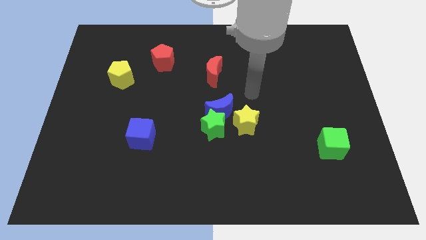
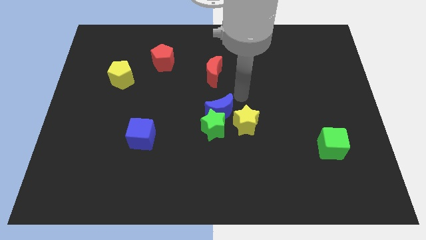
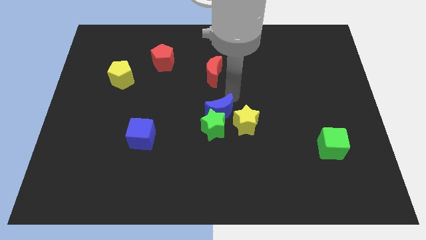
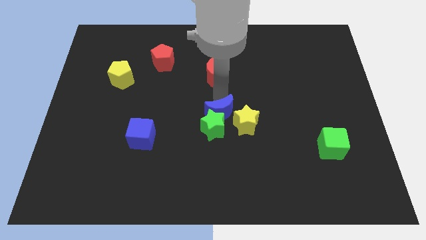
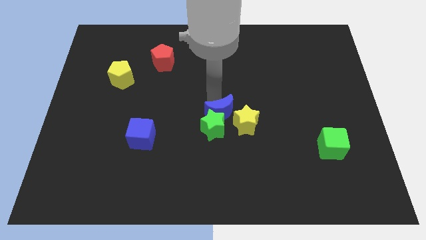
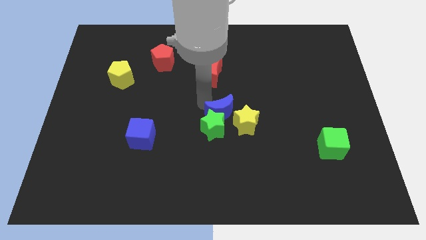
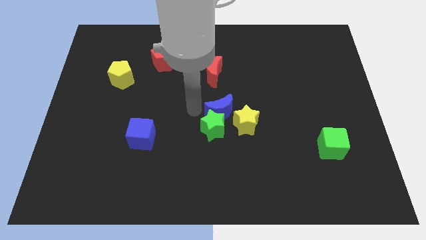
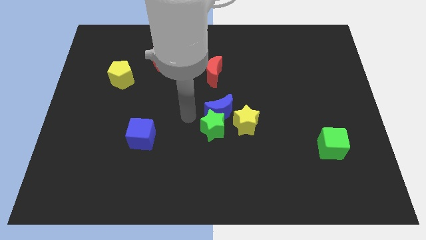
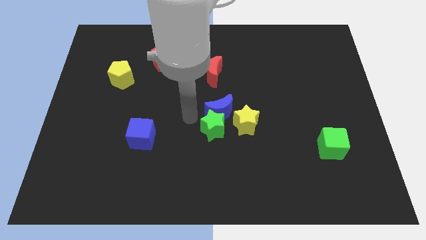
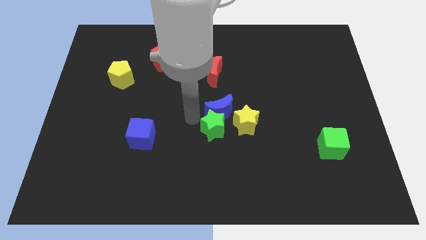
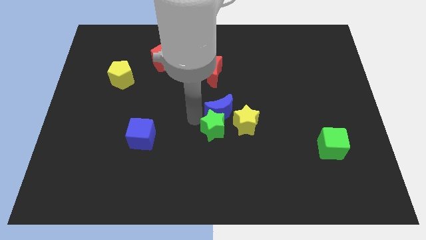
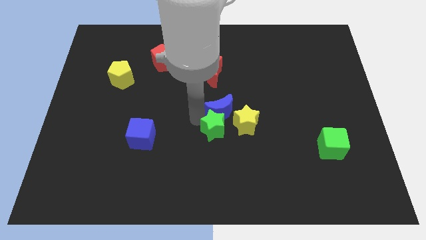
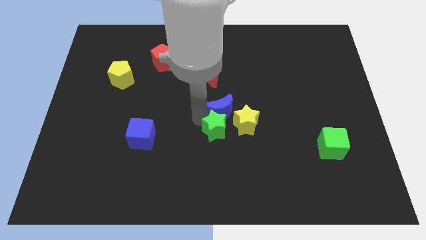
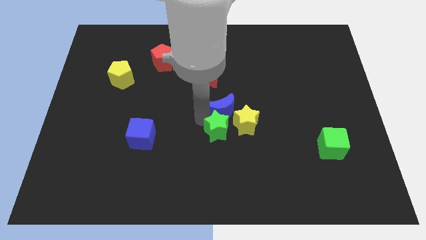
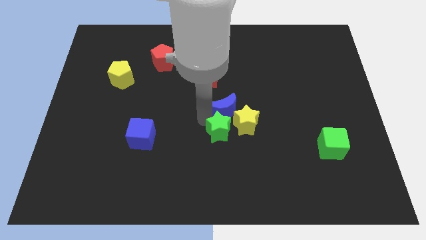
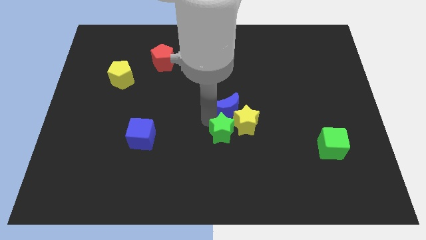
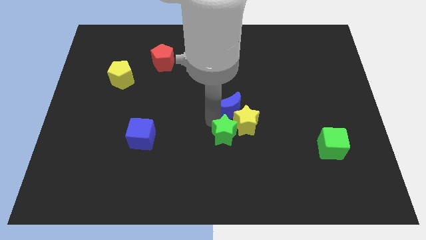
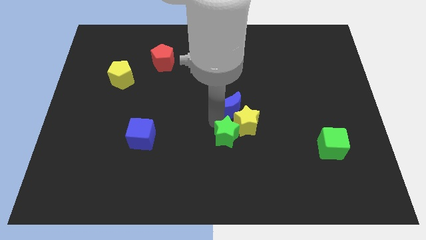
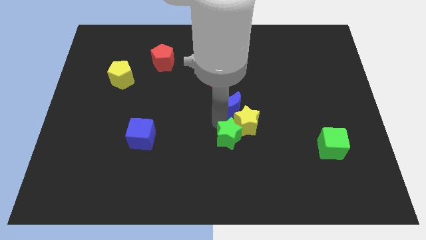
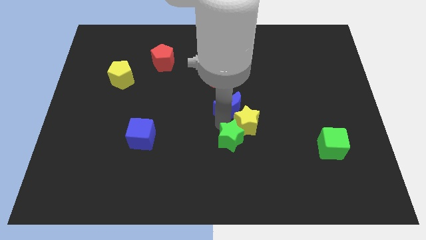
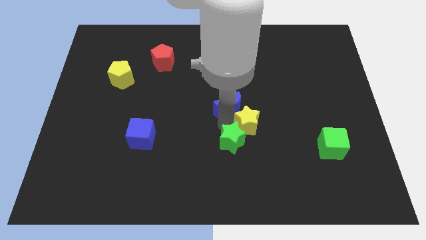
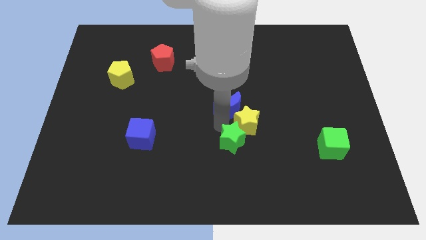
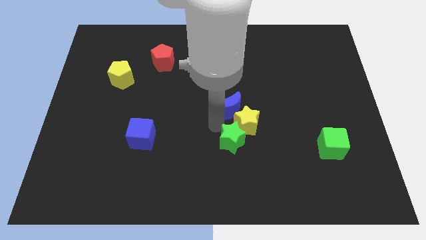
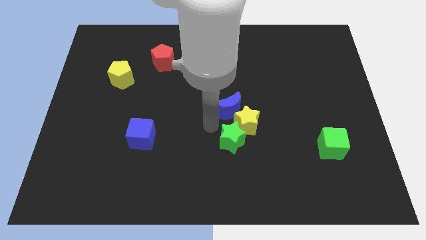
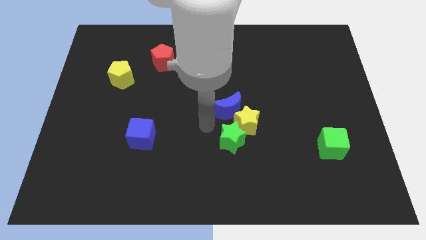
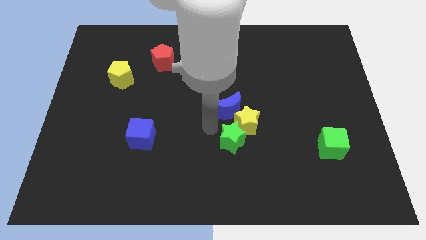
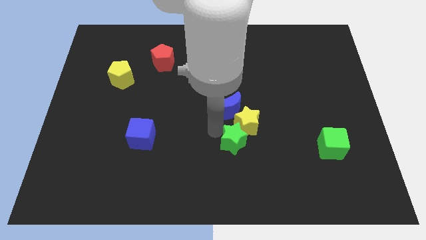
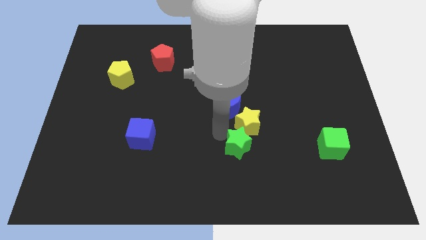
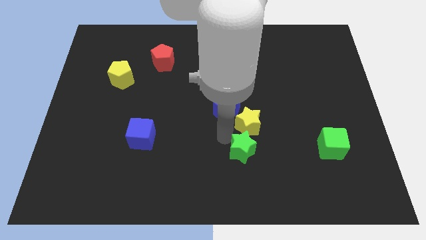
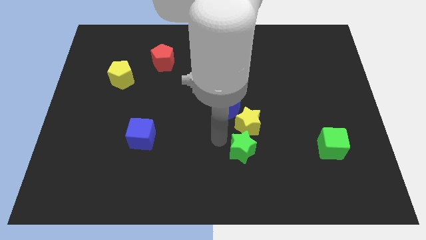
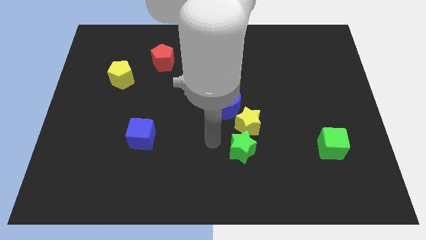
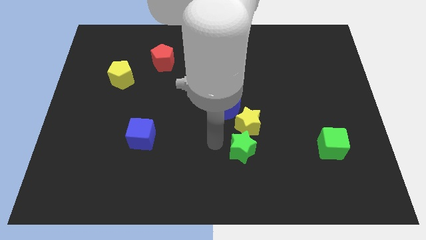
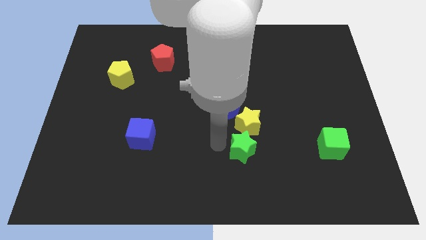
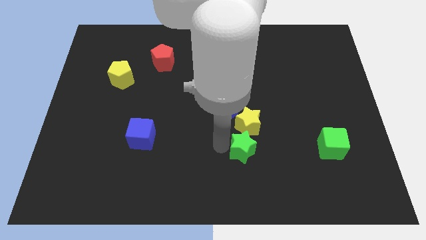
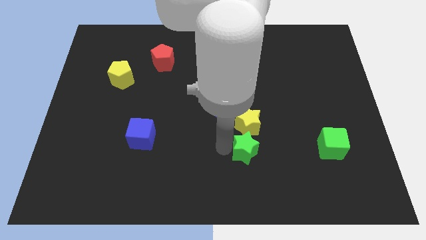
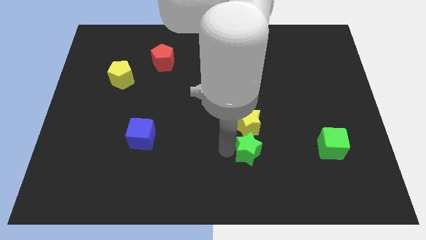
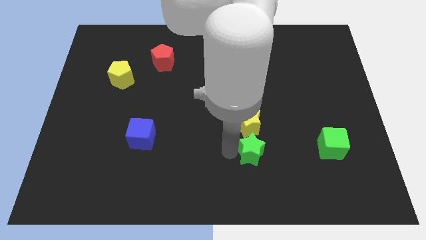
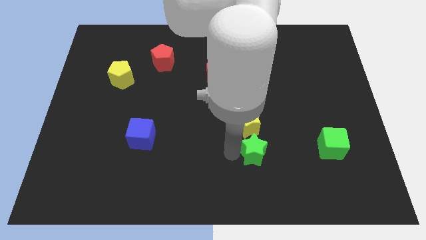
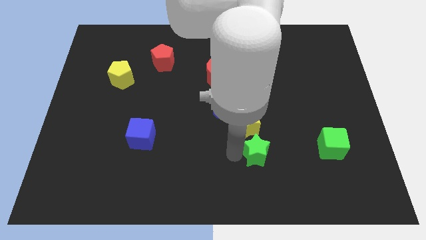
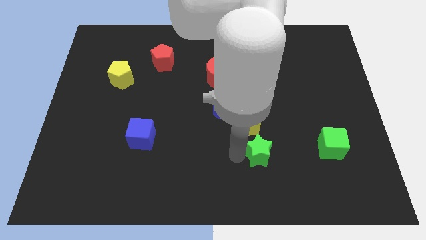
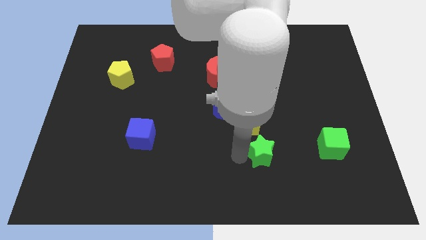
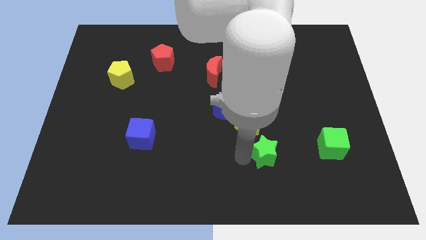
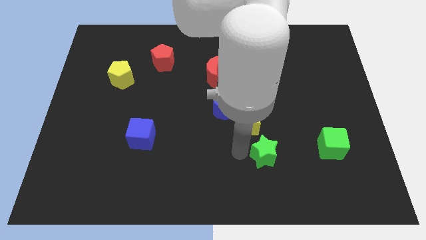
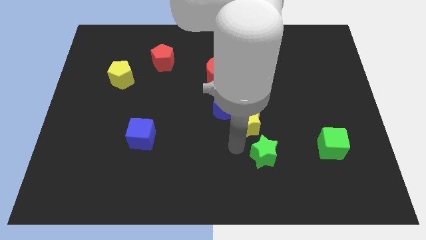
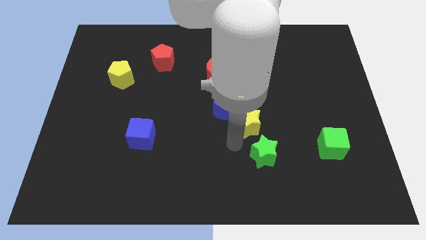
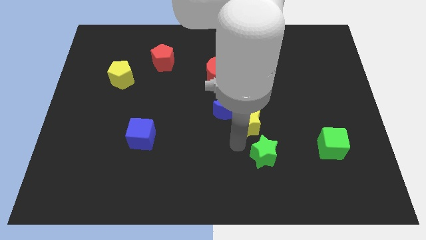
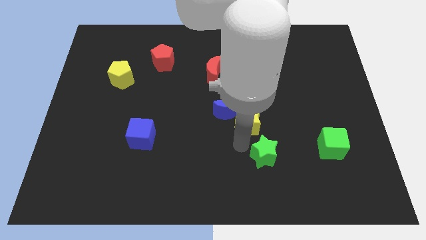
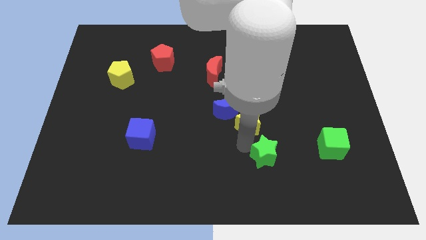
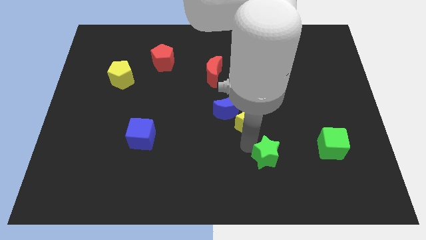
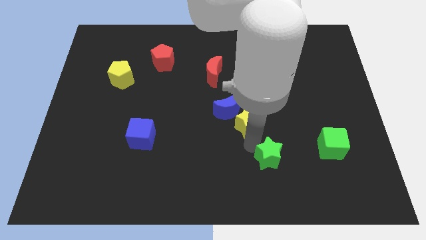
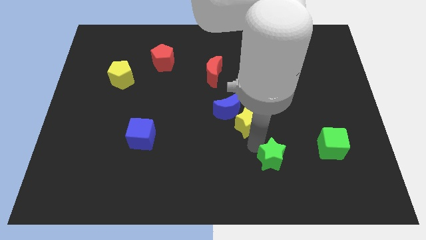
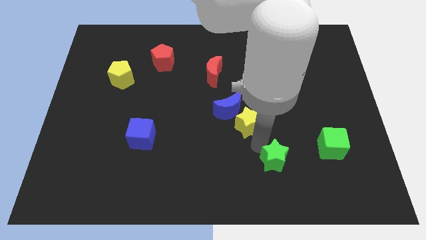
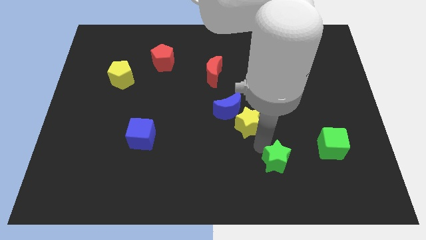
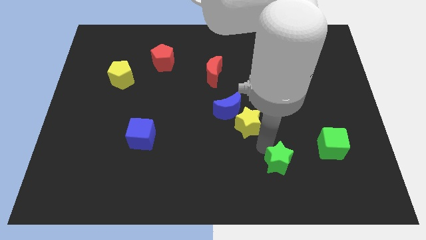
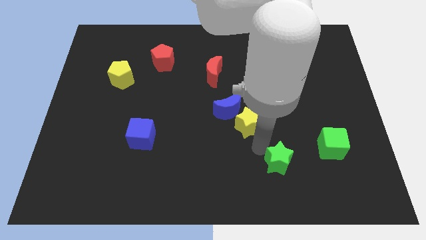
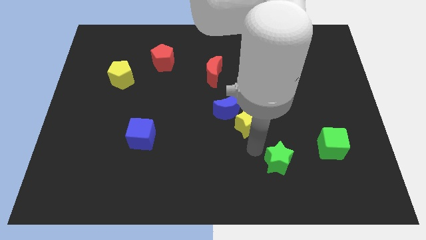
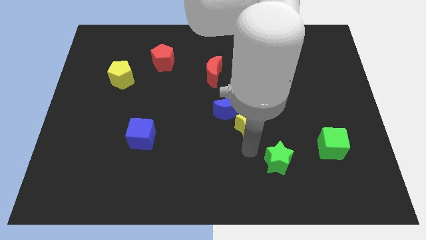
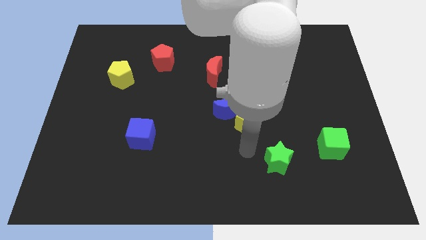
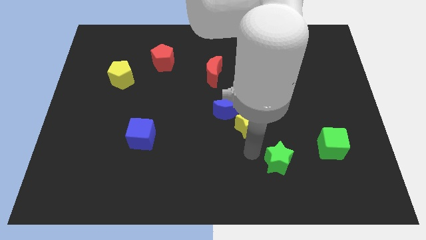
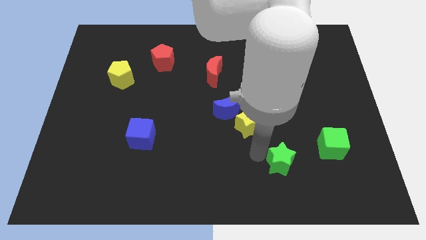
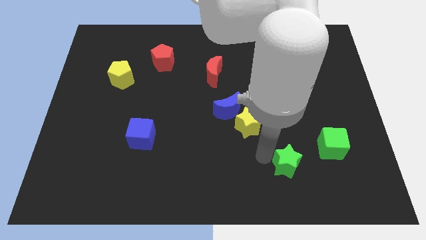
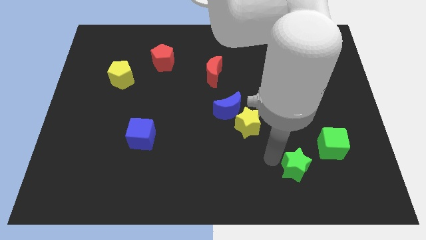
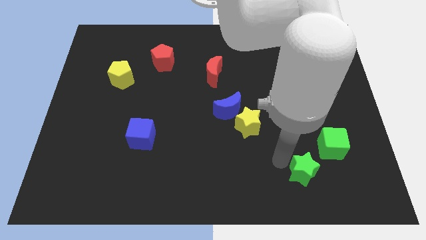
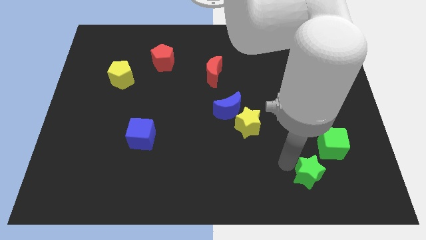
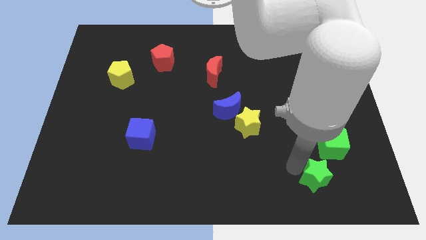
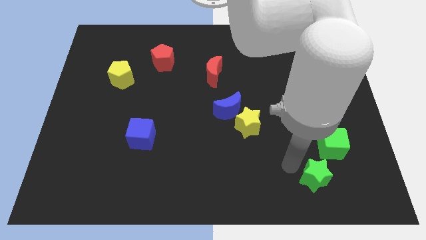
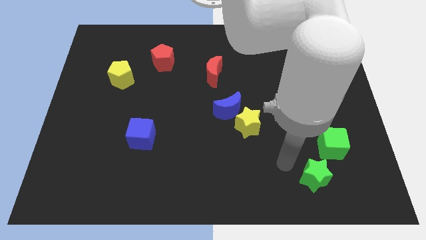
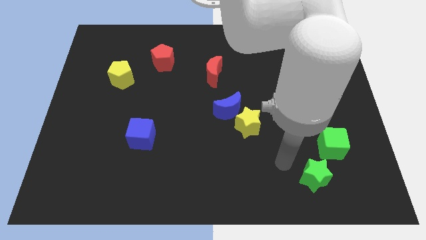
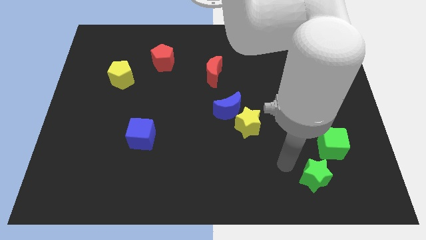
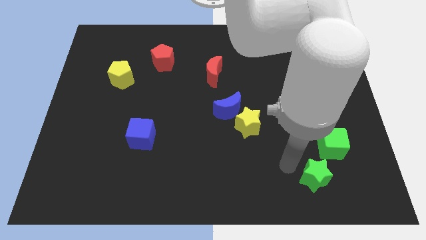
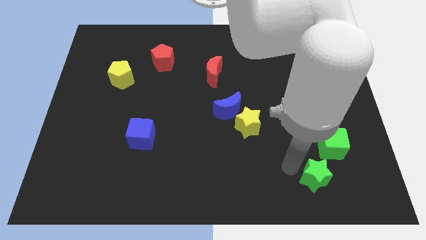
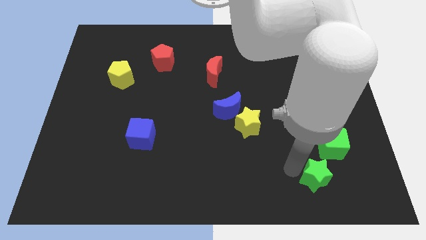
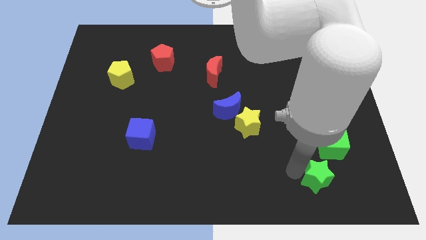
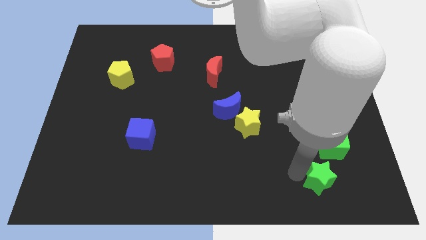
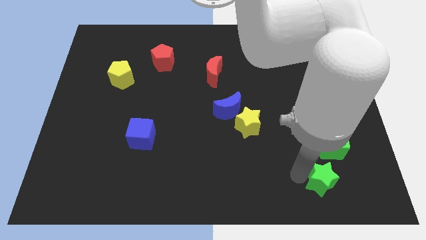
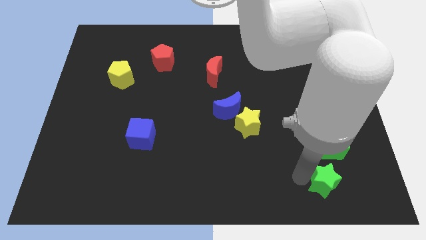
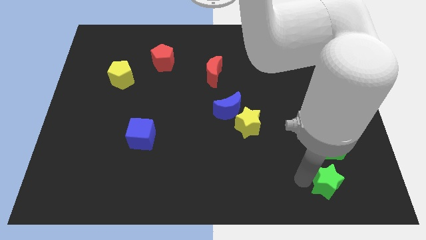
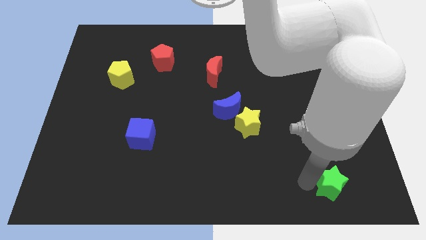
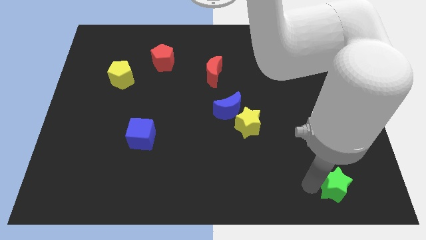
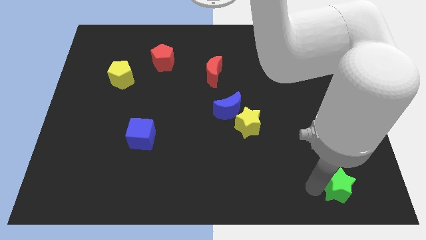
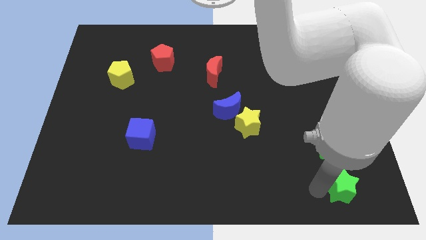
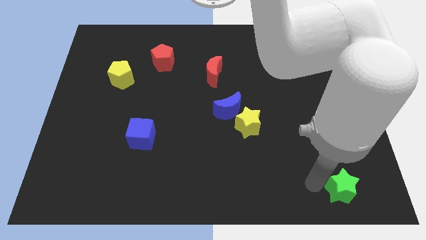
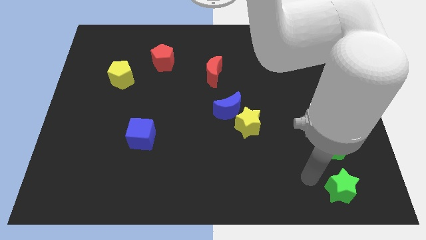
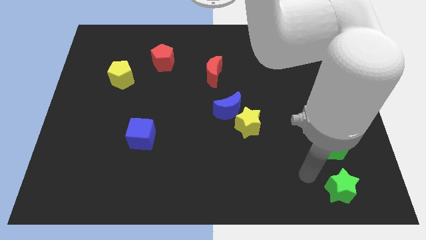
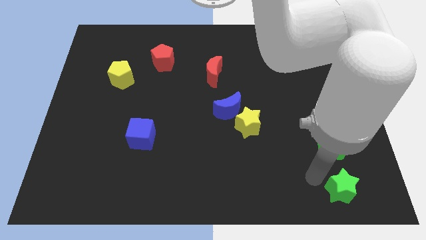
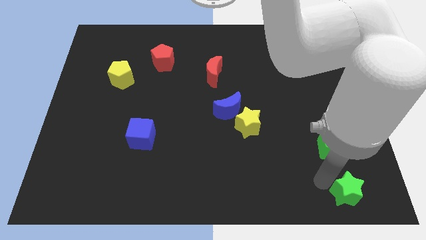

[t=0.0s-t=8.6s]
move the green star to the bottom right
